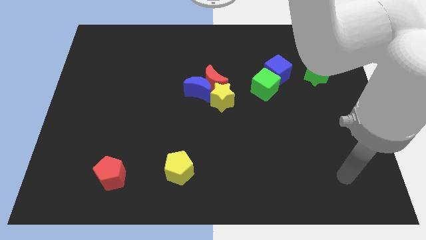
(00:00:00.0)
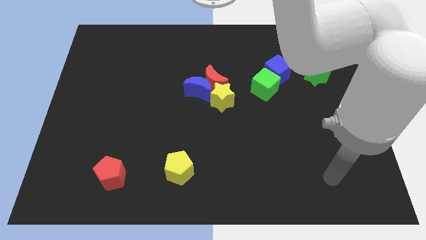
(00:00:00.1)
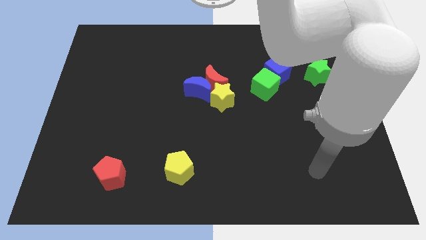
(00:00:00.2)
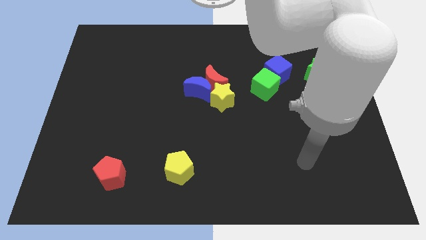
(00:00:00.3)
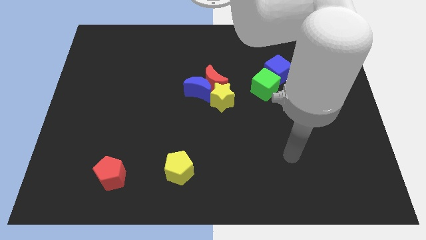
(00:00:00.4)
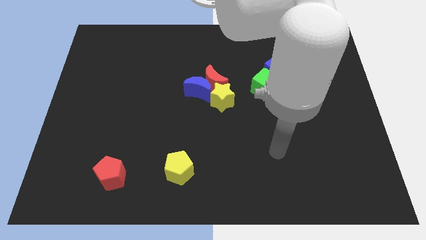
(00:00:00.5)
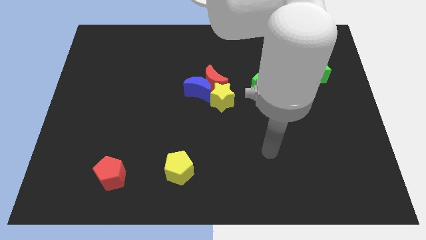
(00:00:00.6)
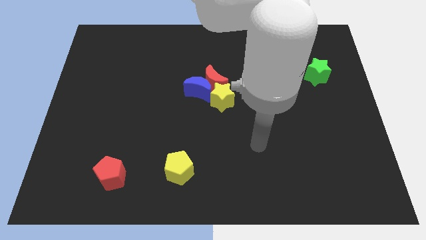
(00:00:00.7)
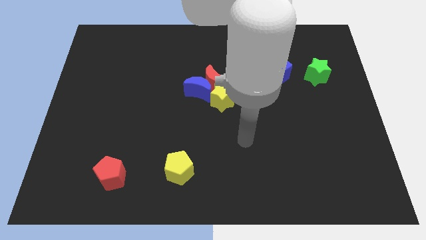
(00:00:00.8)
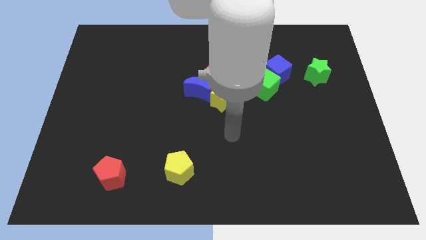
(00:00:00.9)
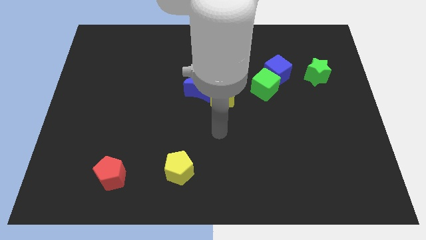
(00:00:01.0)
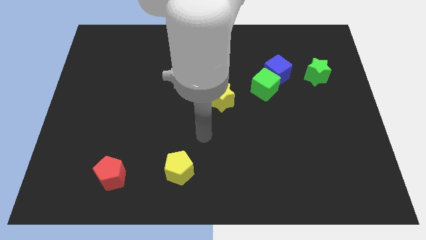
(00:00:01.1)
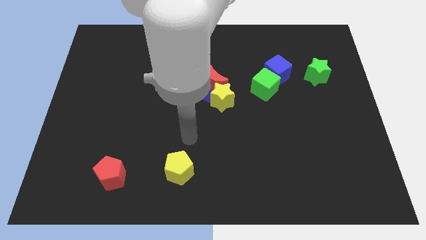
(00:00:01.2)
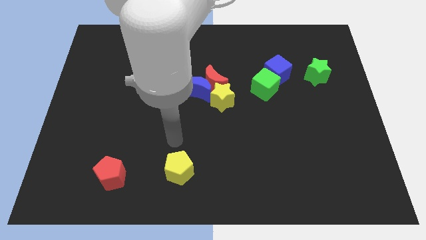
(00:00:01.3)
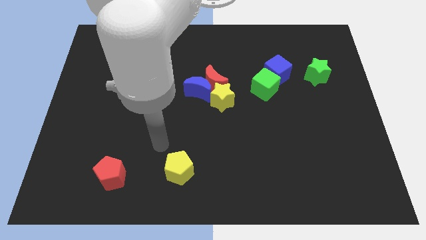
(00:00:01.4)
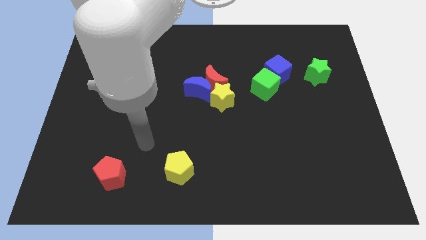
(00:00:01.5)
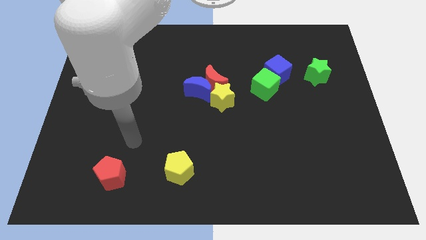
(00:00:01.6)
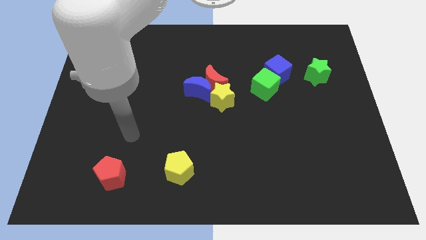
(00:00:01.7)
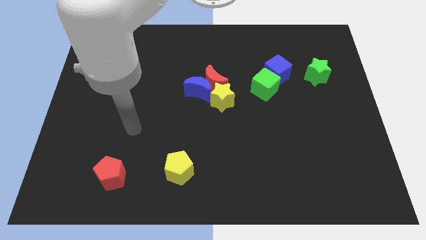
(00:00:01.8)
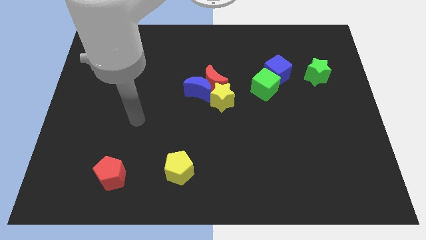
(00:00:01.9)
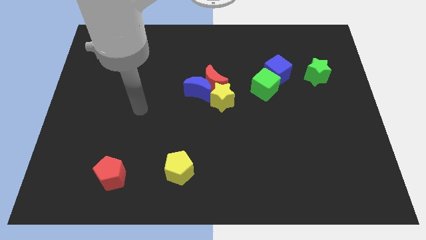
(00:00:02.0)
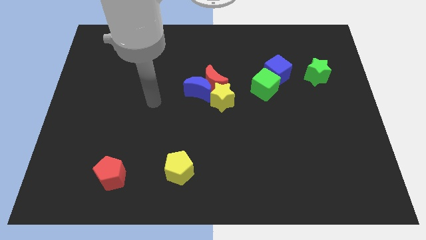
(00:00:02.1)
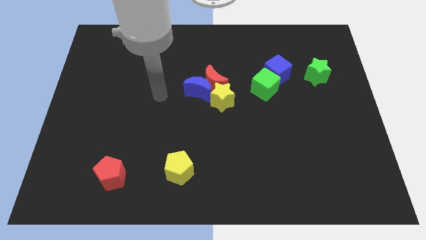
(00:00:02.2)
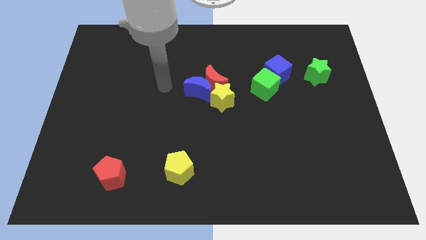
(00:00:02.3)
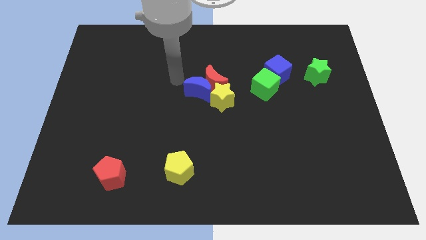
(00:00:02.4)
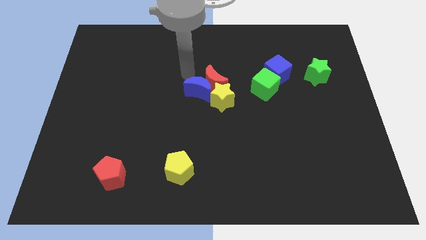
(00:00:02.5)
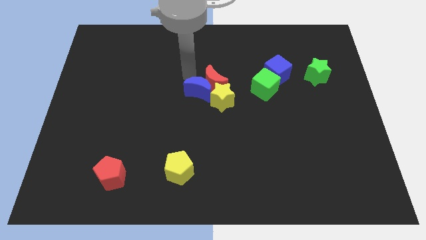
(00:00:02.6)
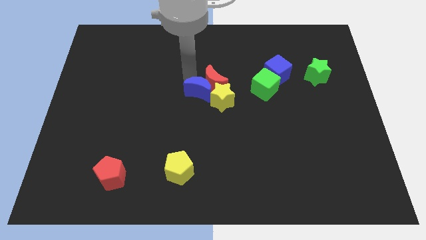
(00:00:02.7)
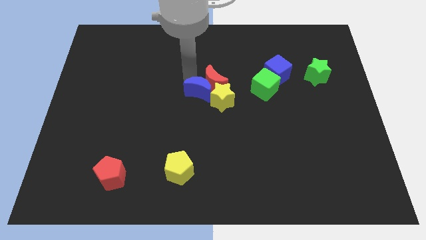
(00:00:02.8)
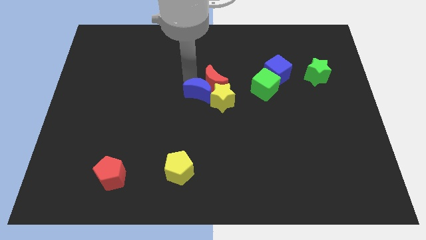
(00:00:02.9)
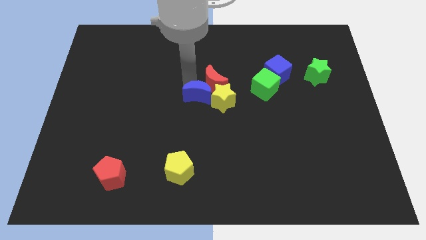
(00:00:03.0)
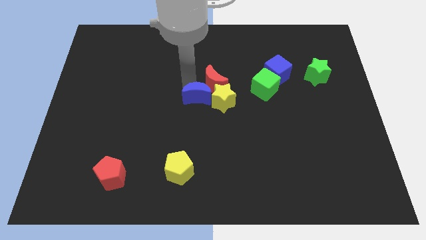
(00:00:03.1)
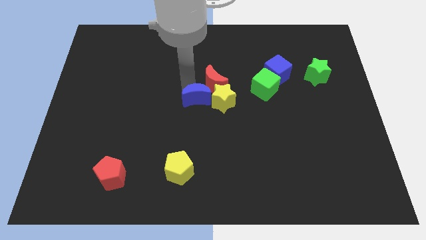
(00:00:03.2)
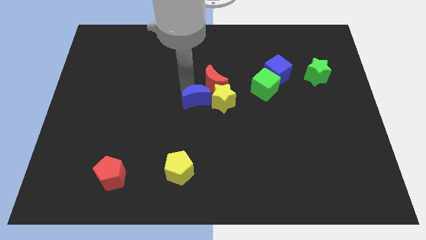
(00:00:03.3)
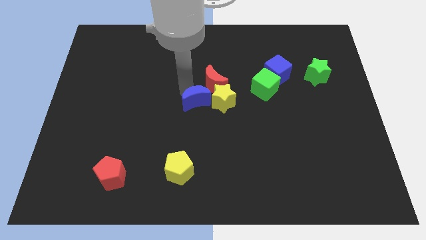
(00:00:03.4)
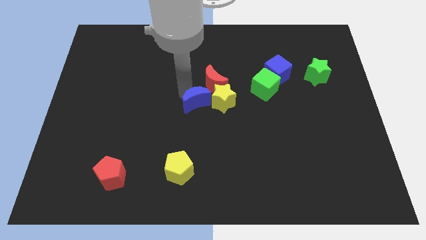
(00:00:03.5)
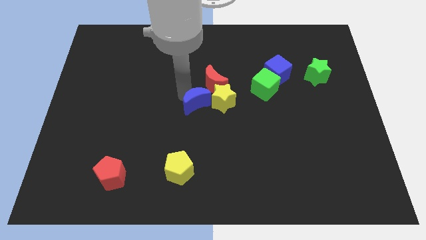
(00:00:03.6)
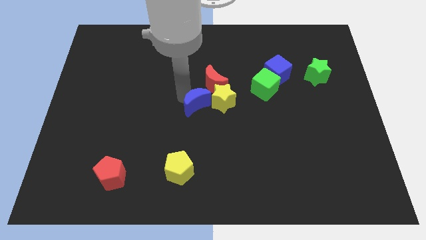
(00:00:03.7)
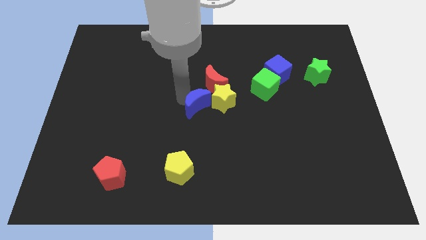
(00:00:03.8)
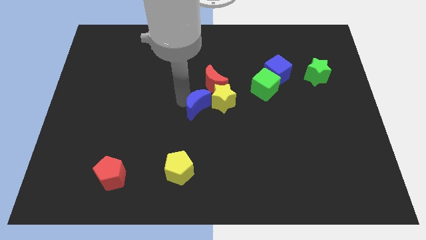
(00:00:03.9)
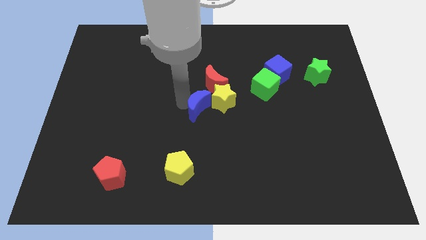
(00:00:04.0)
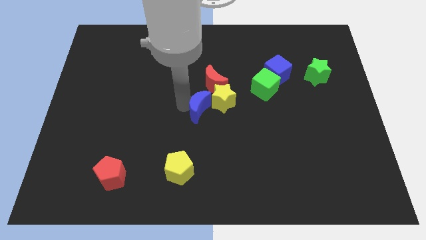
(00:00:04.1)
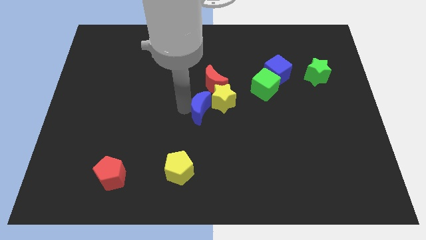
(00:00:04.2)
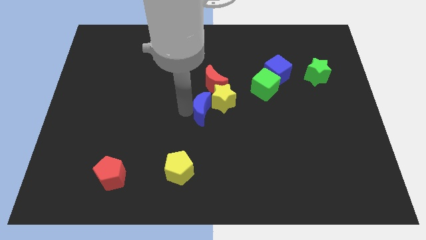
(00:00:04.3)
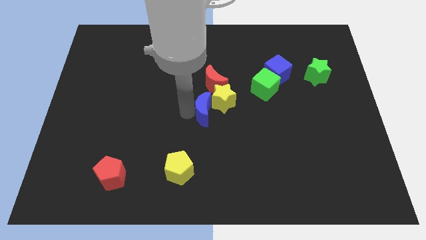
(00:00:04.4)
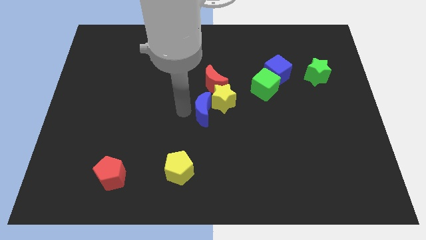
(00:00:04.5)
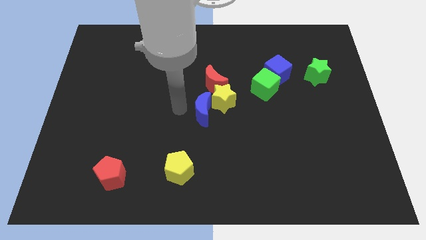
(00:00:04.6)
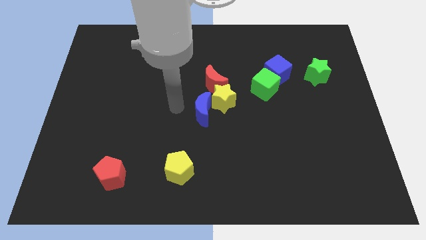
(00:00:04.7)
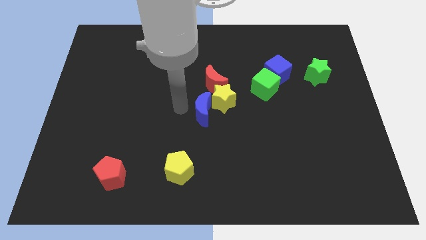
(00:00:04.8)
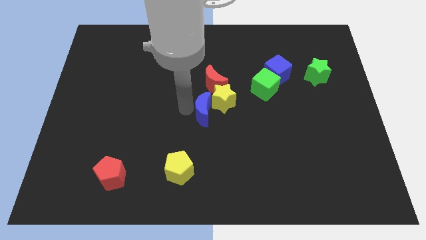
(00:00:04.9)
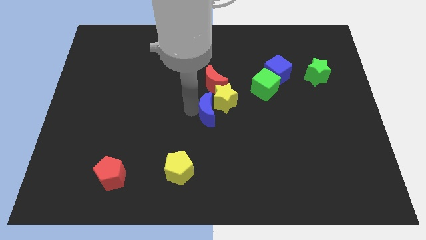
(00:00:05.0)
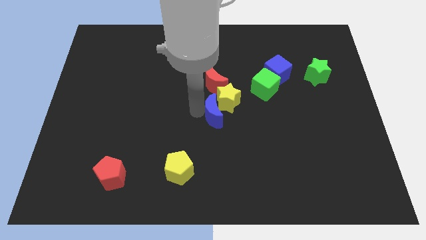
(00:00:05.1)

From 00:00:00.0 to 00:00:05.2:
slightly push the blue moon down and right diagonally

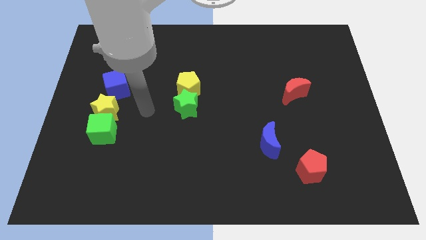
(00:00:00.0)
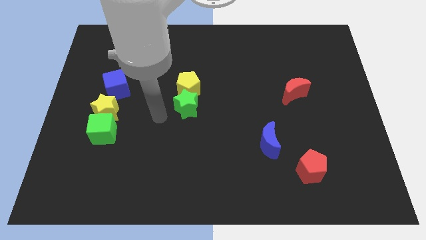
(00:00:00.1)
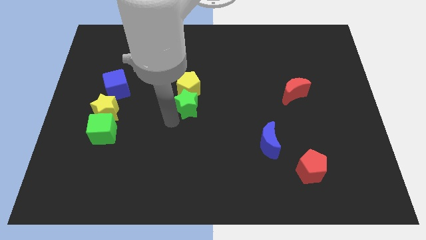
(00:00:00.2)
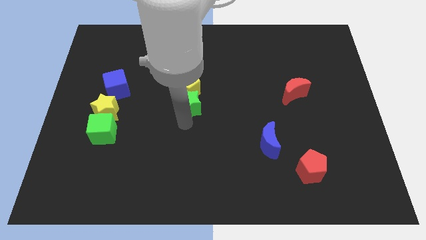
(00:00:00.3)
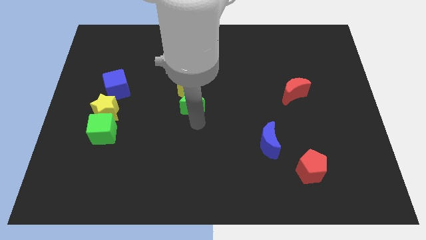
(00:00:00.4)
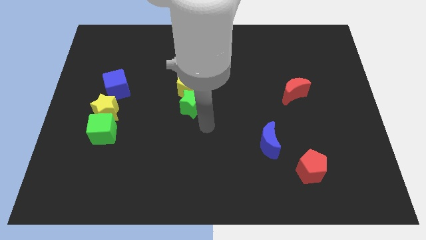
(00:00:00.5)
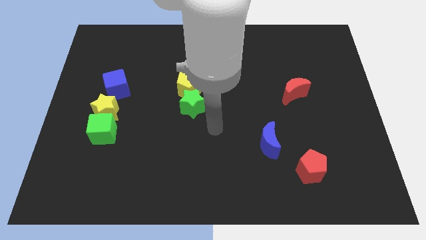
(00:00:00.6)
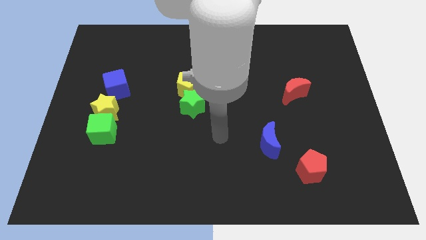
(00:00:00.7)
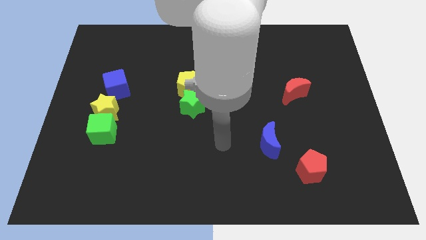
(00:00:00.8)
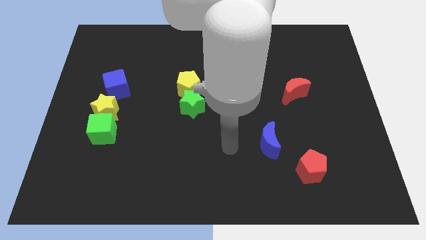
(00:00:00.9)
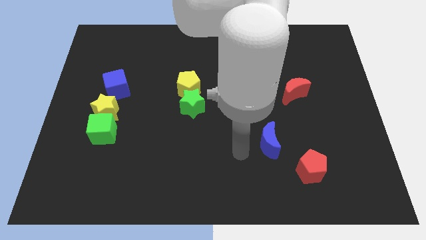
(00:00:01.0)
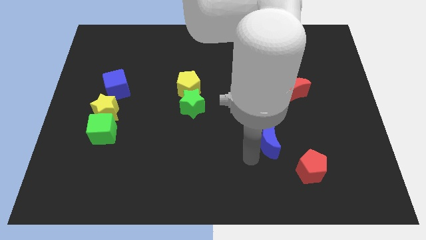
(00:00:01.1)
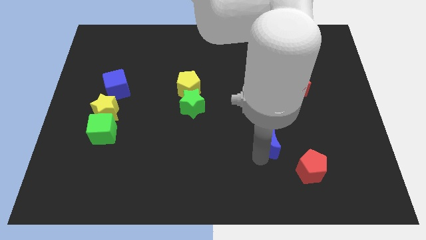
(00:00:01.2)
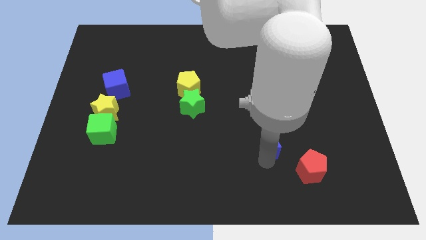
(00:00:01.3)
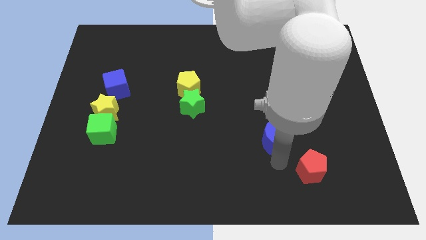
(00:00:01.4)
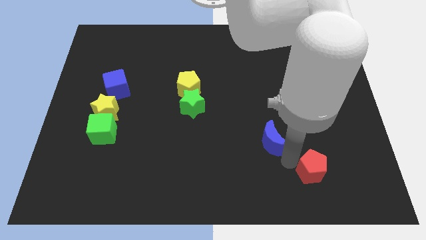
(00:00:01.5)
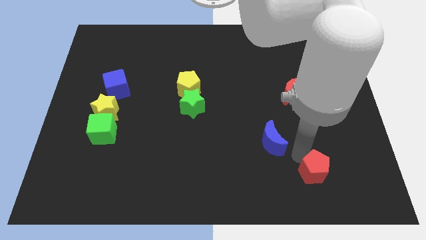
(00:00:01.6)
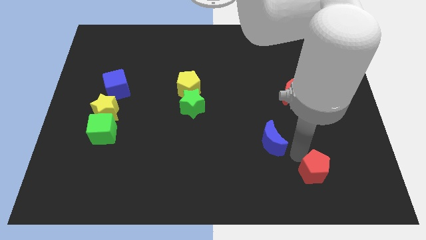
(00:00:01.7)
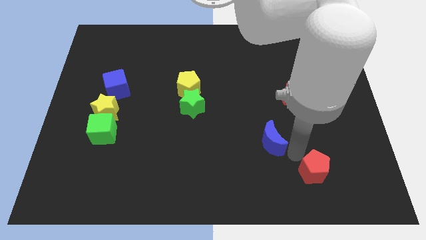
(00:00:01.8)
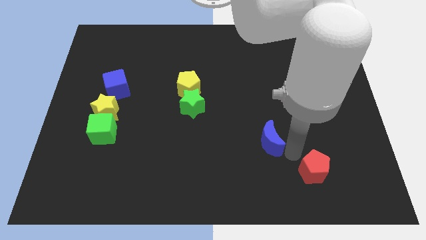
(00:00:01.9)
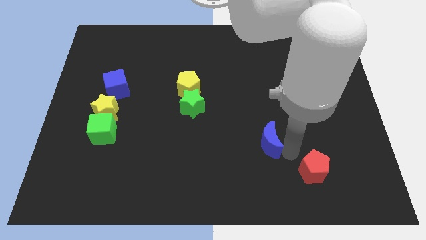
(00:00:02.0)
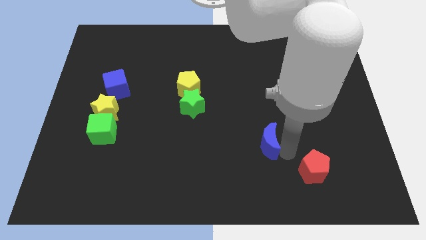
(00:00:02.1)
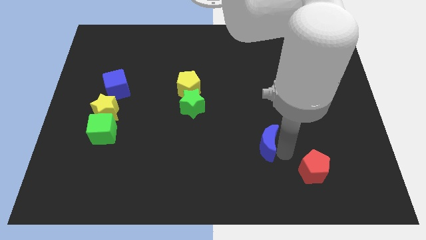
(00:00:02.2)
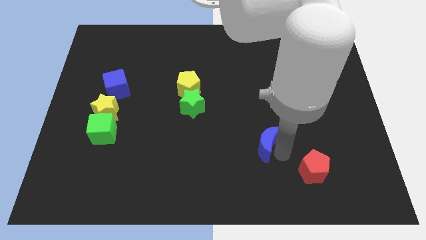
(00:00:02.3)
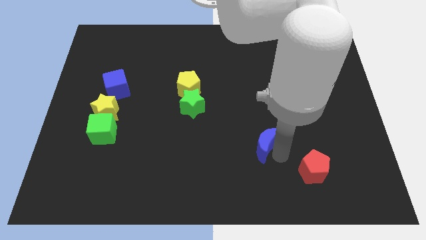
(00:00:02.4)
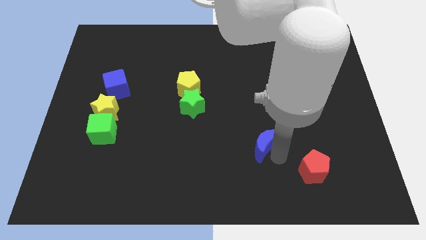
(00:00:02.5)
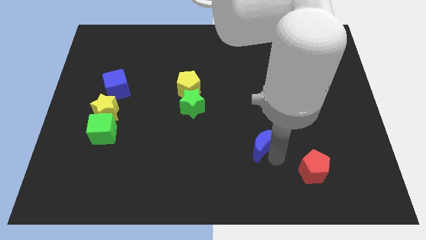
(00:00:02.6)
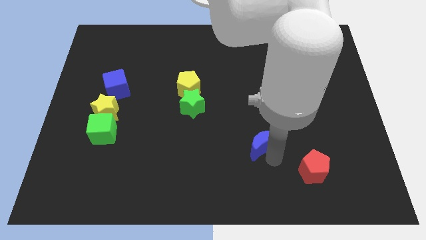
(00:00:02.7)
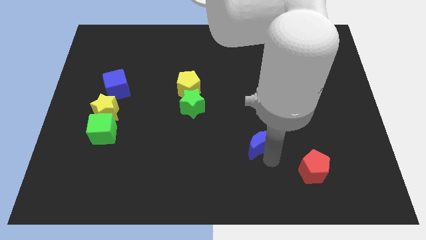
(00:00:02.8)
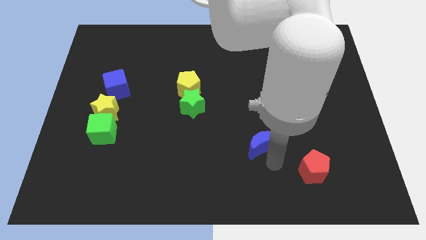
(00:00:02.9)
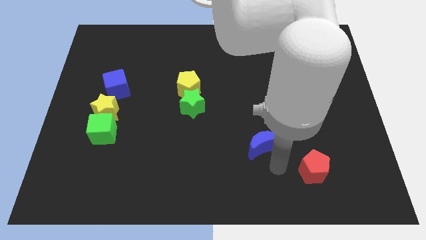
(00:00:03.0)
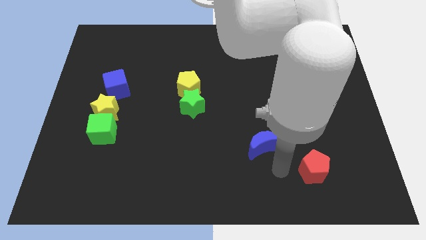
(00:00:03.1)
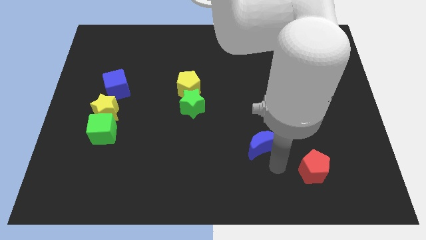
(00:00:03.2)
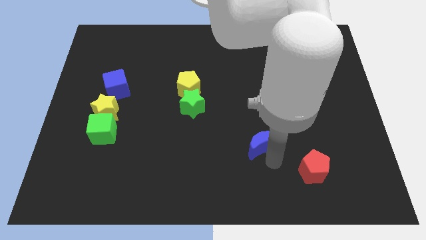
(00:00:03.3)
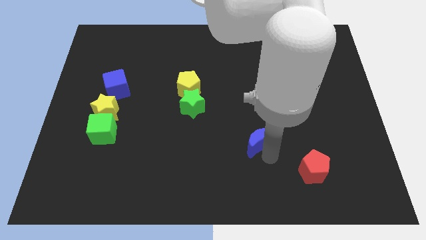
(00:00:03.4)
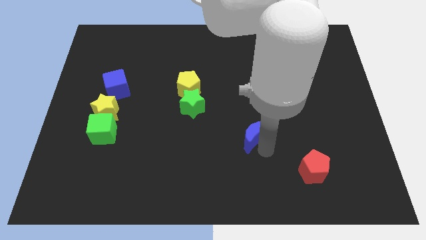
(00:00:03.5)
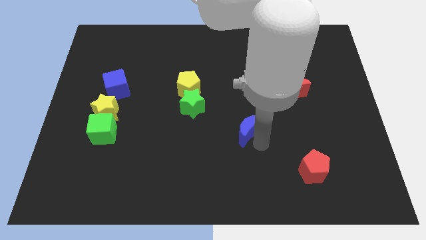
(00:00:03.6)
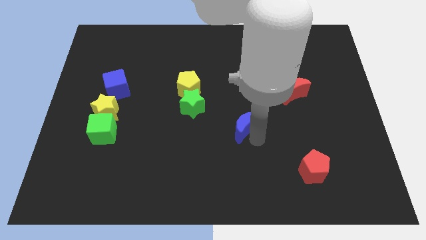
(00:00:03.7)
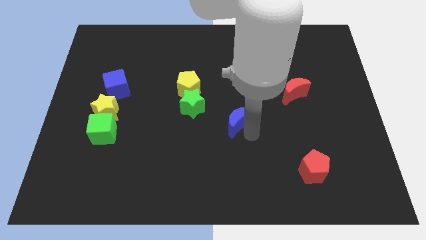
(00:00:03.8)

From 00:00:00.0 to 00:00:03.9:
slightly push the blue moon up and left diagonally
